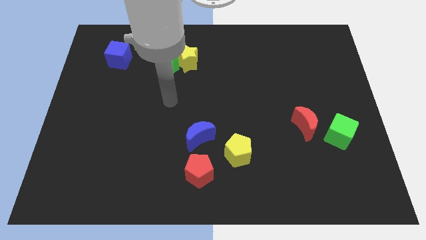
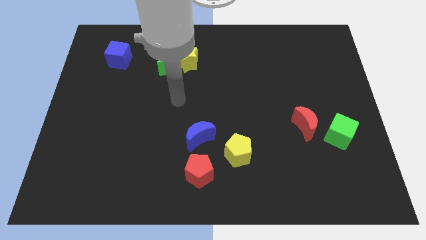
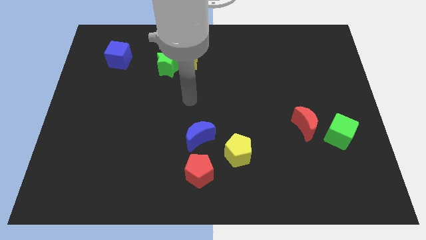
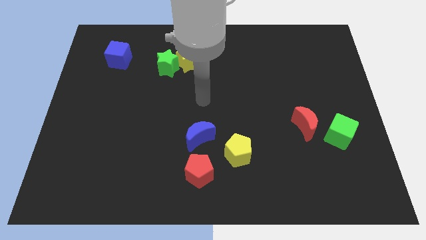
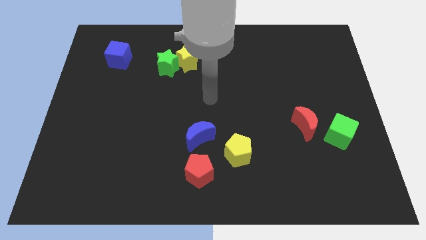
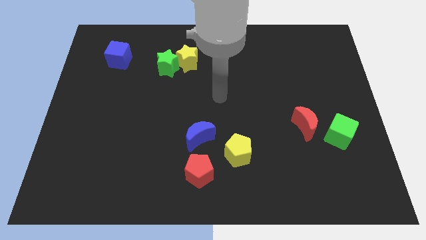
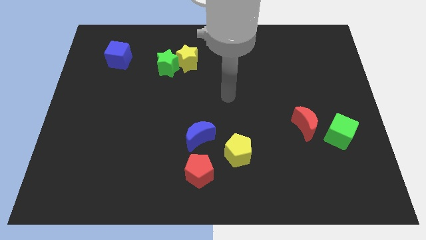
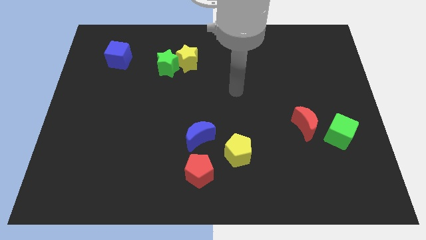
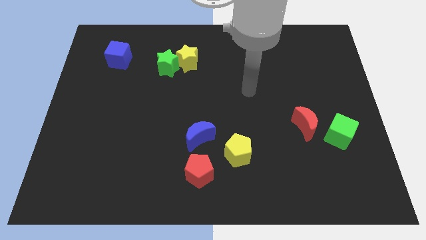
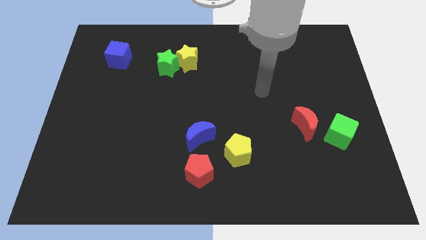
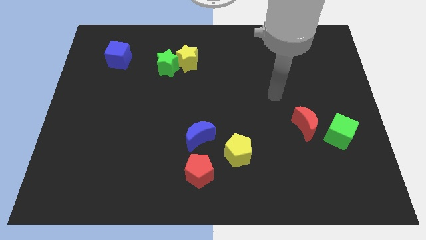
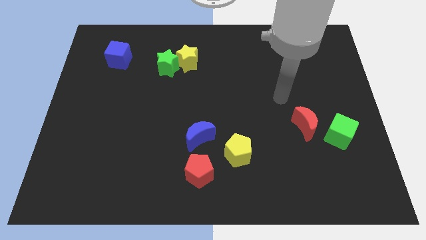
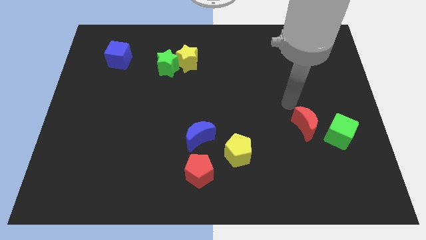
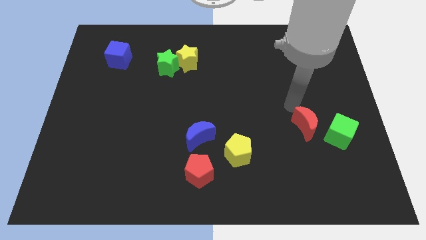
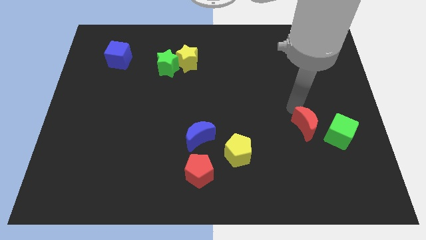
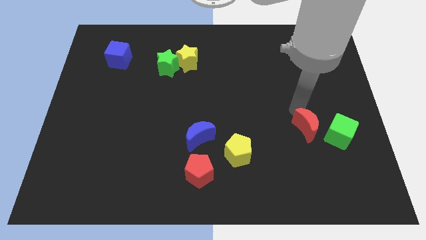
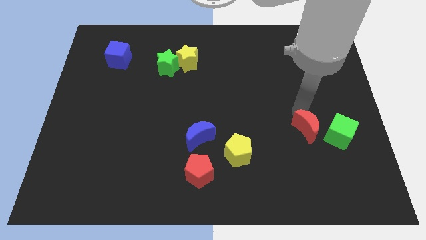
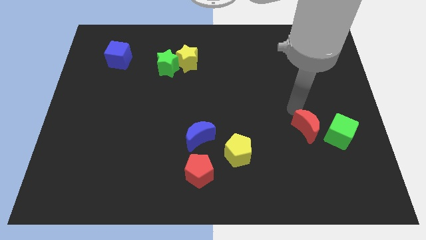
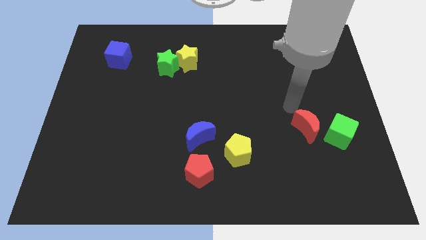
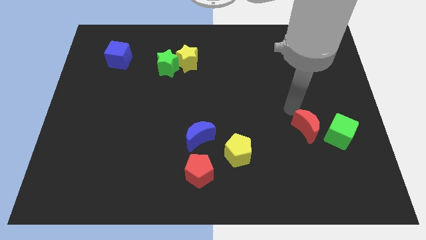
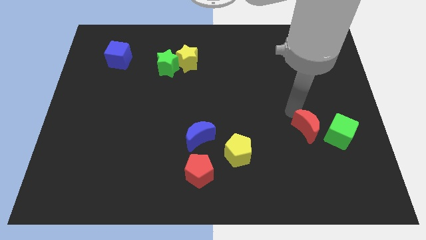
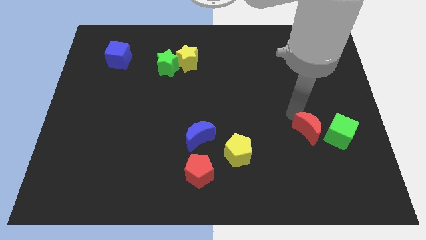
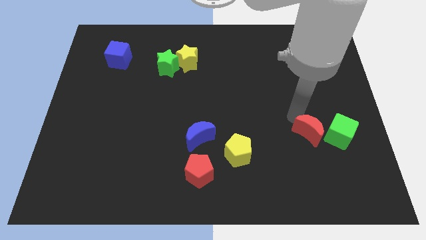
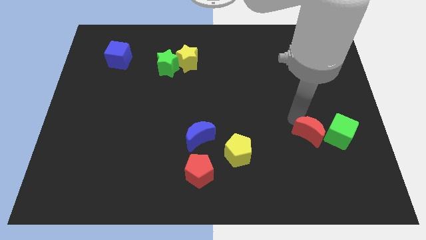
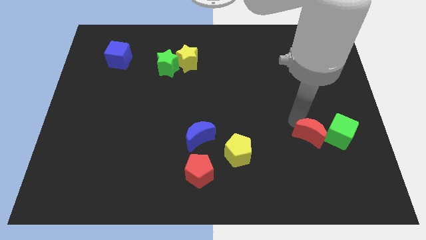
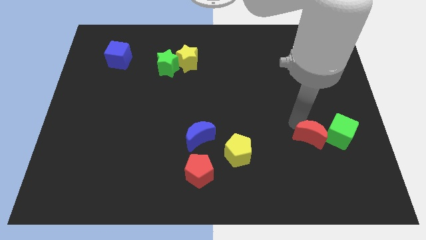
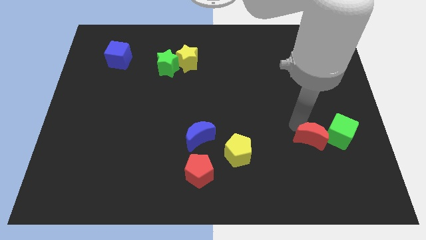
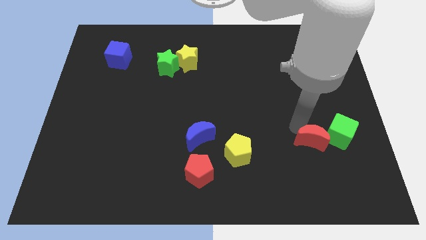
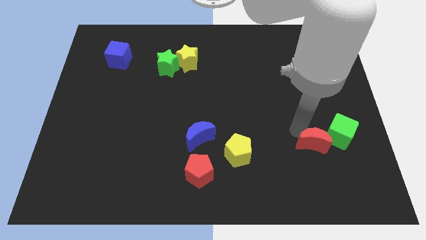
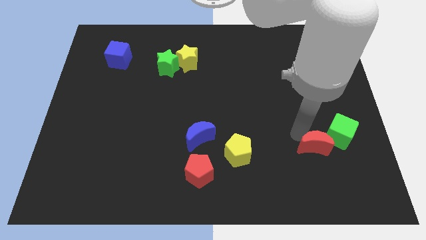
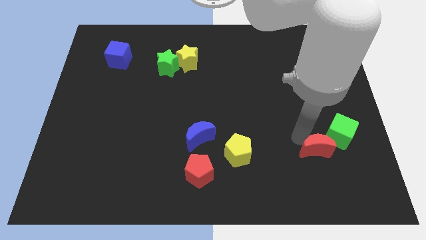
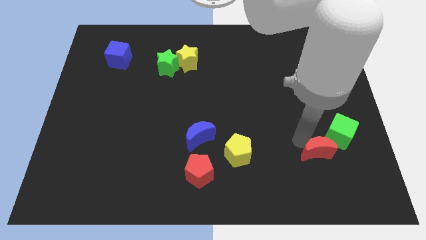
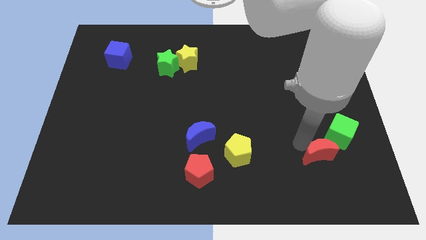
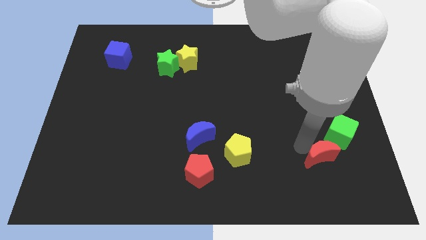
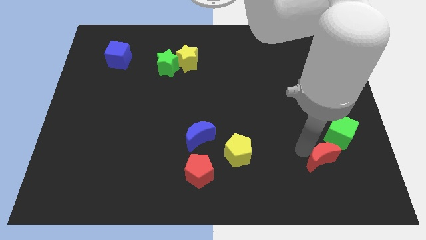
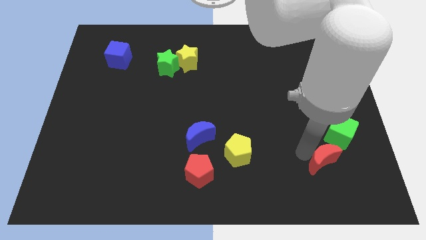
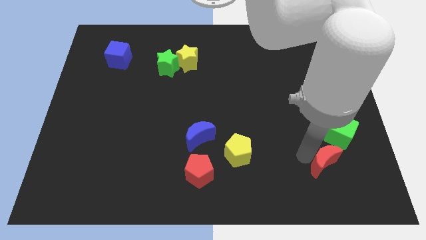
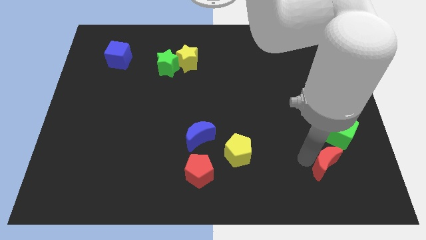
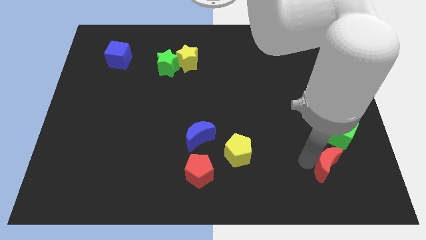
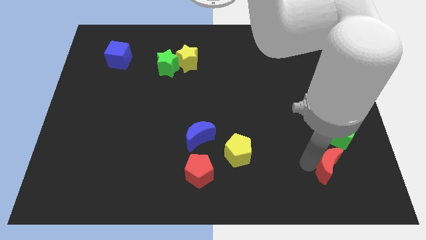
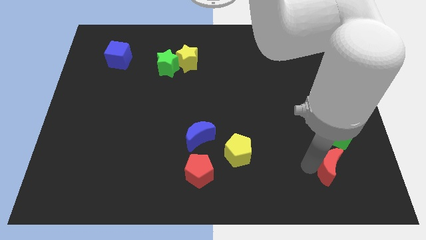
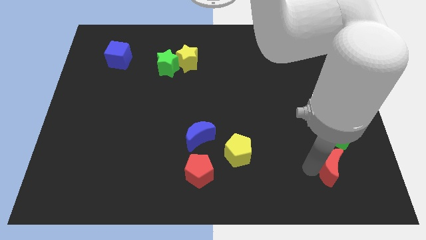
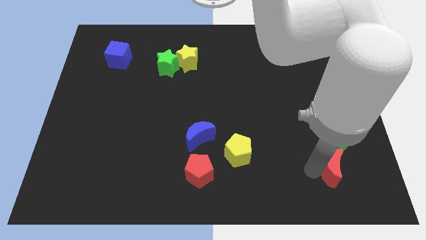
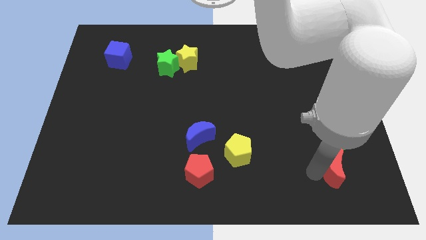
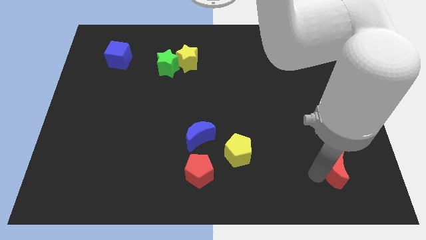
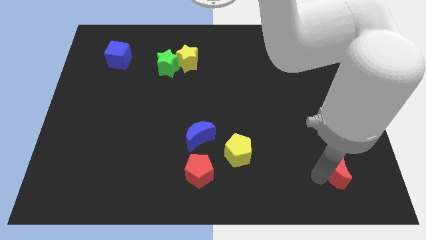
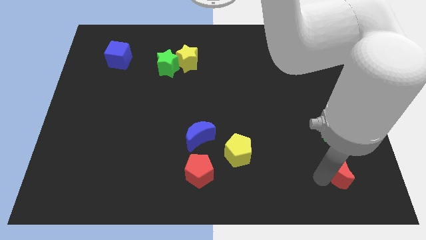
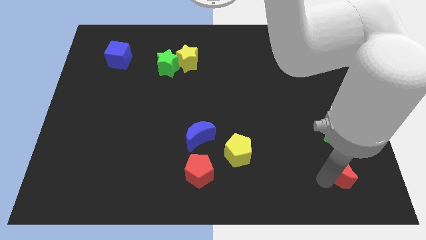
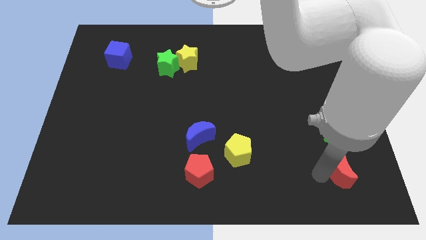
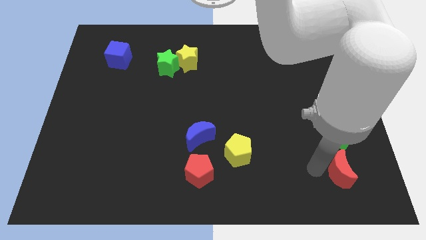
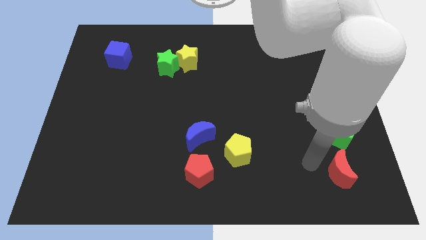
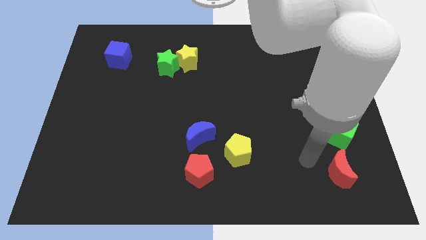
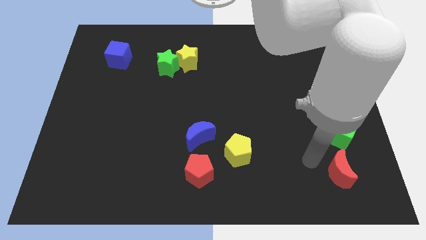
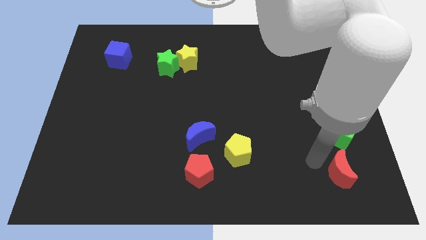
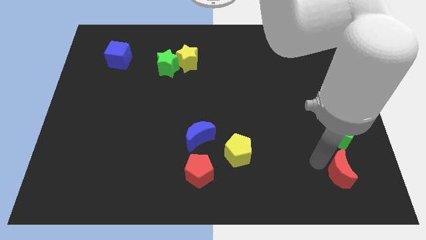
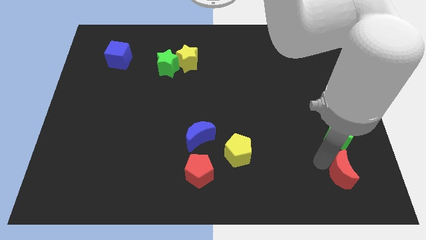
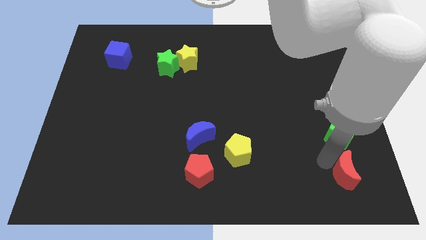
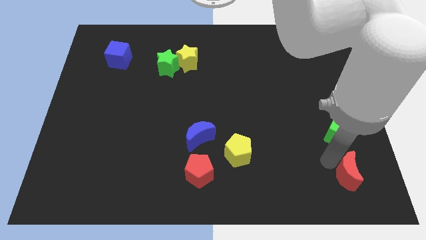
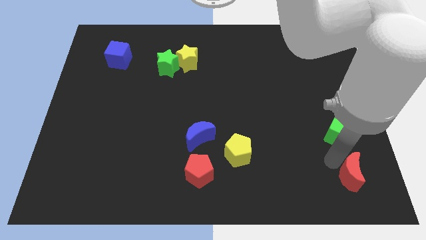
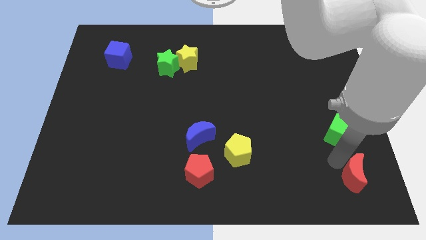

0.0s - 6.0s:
slide the red moon to the bottom right
